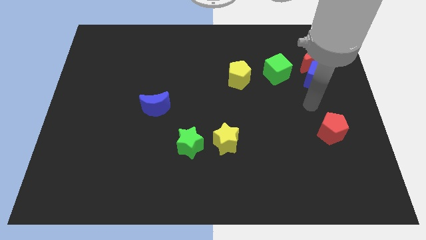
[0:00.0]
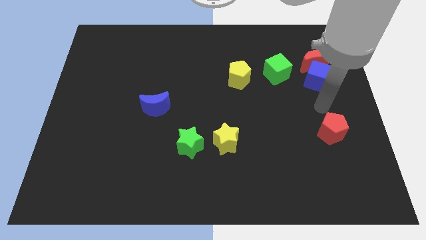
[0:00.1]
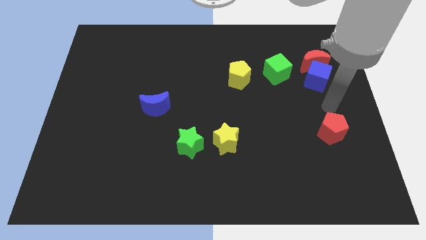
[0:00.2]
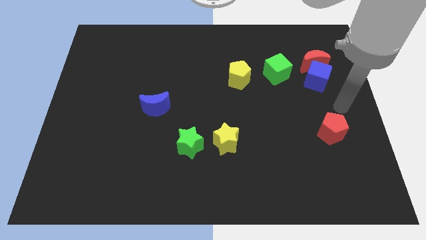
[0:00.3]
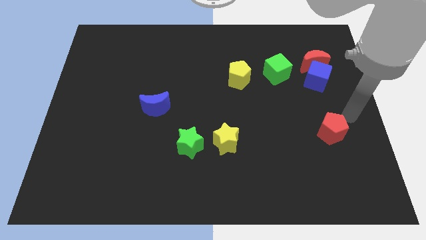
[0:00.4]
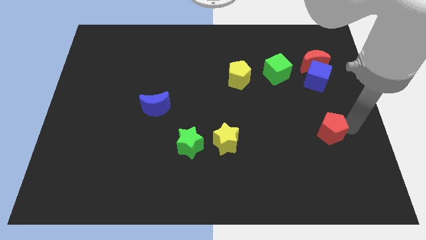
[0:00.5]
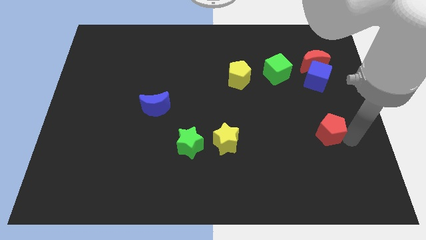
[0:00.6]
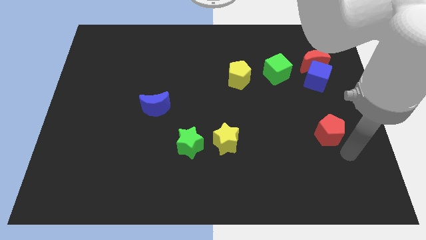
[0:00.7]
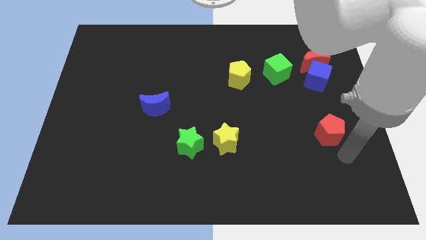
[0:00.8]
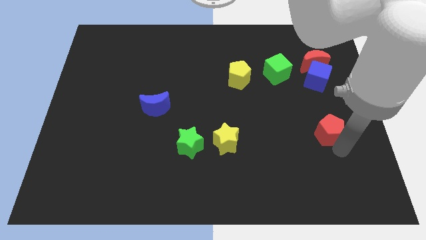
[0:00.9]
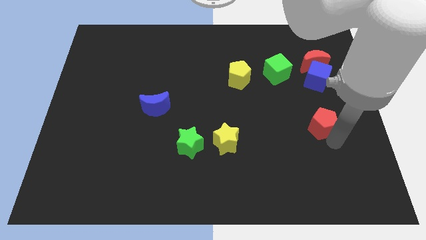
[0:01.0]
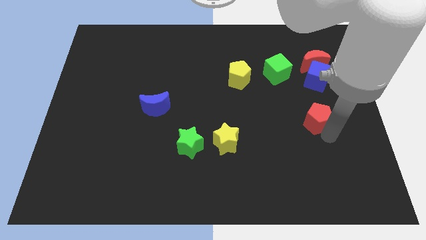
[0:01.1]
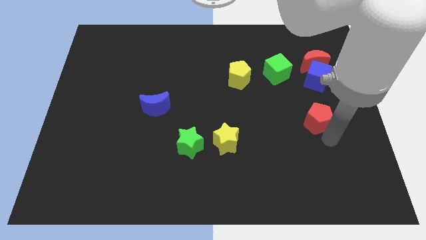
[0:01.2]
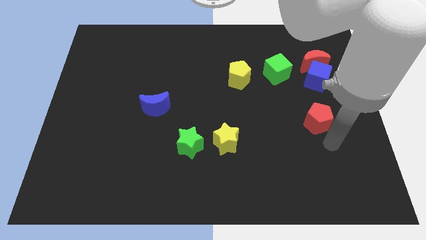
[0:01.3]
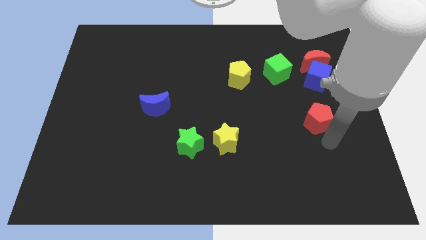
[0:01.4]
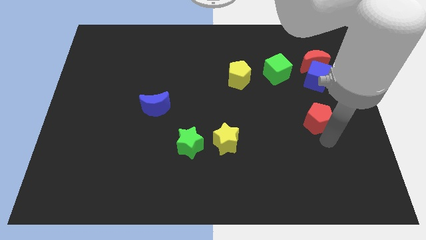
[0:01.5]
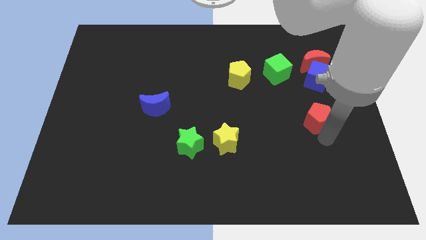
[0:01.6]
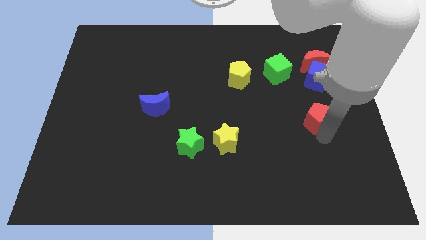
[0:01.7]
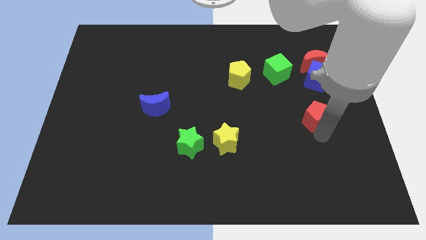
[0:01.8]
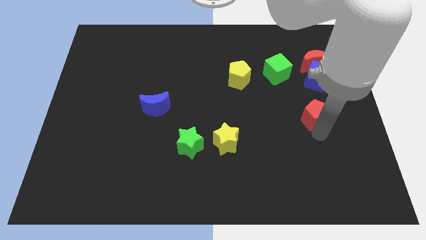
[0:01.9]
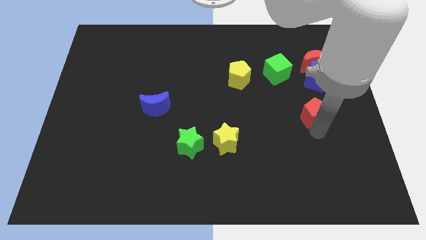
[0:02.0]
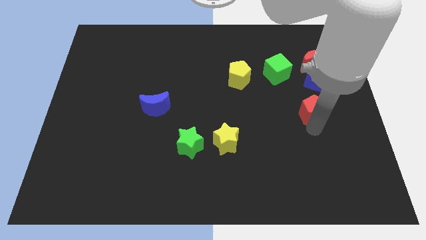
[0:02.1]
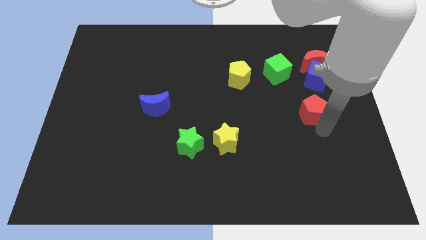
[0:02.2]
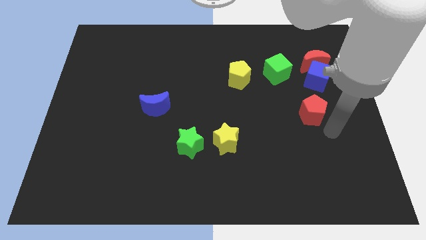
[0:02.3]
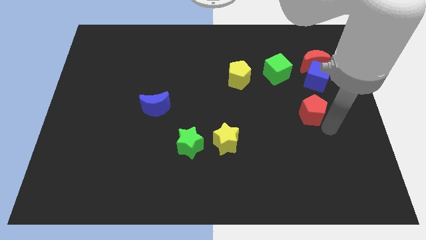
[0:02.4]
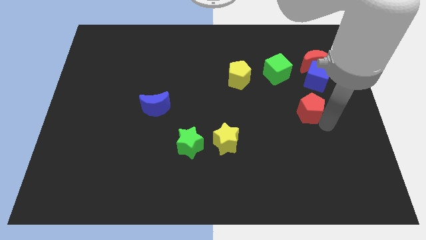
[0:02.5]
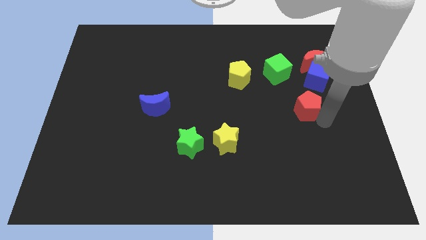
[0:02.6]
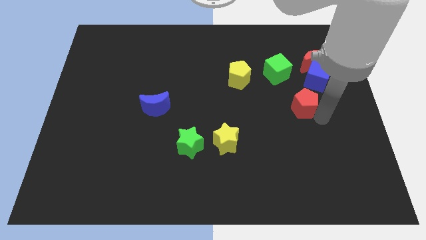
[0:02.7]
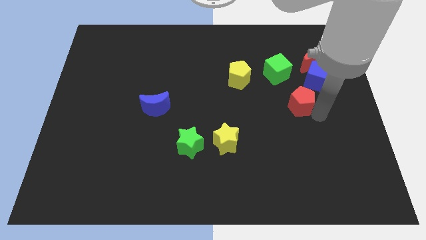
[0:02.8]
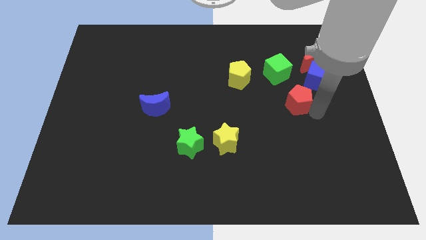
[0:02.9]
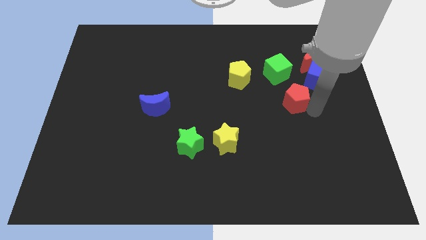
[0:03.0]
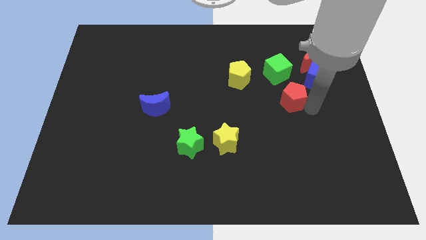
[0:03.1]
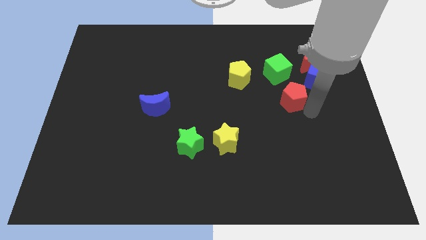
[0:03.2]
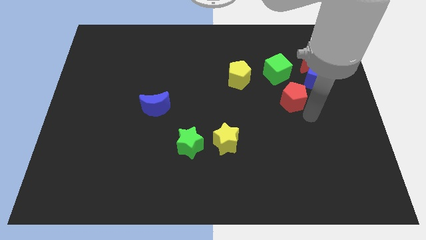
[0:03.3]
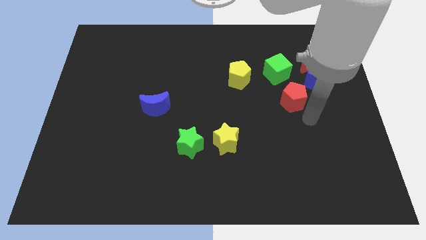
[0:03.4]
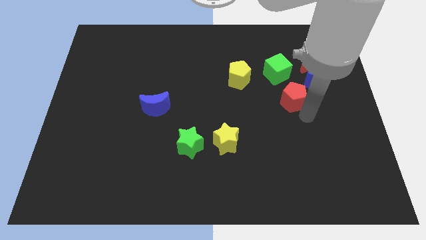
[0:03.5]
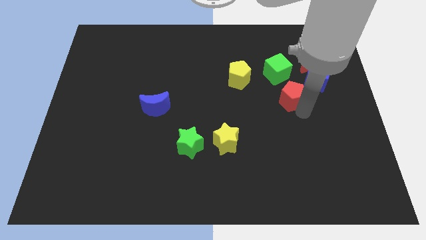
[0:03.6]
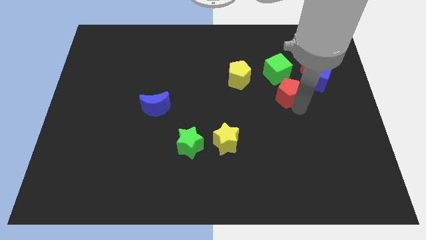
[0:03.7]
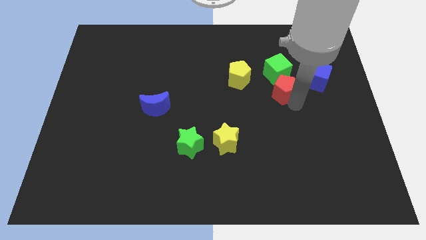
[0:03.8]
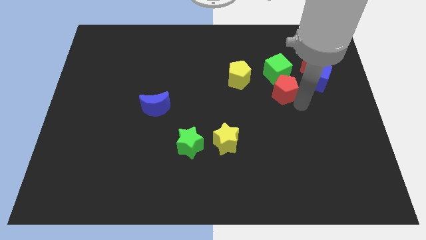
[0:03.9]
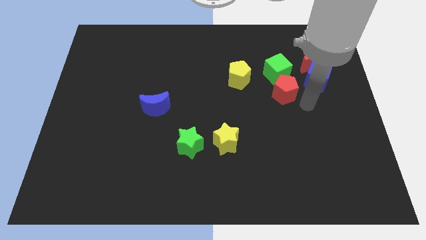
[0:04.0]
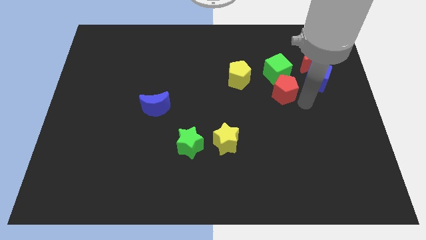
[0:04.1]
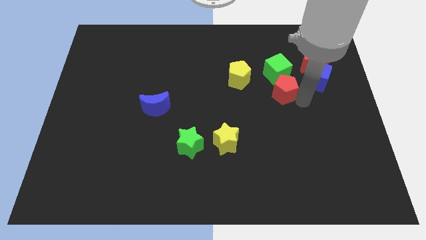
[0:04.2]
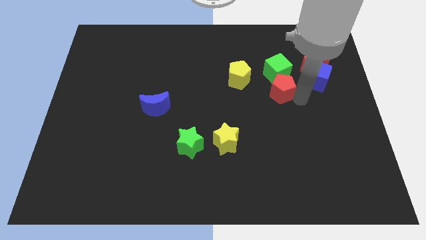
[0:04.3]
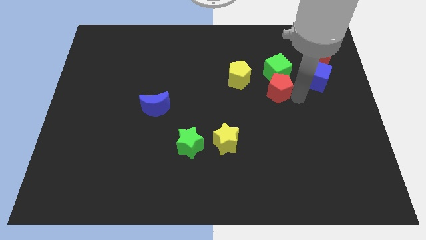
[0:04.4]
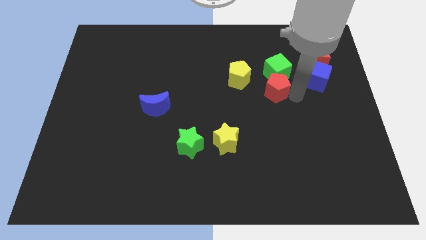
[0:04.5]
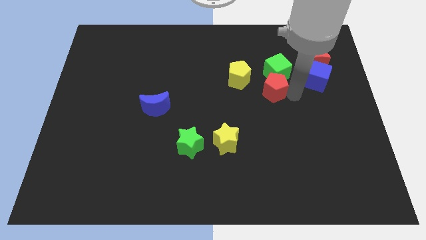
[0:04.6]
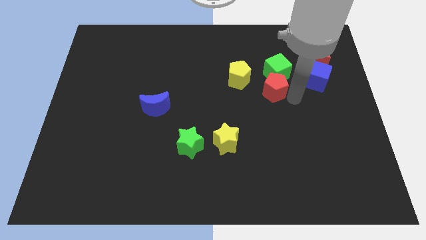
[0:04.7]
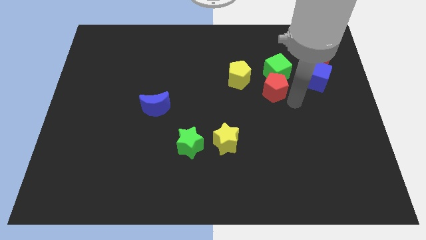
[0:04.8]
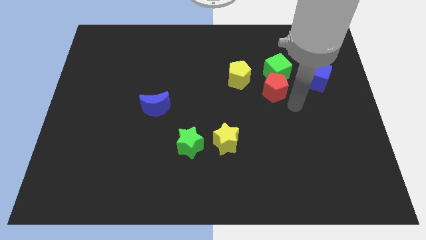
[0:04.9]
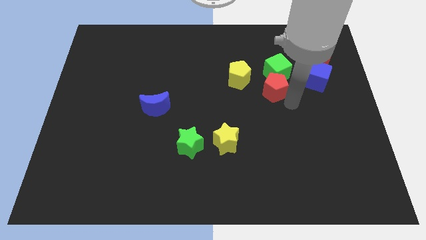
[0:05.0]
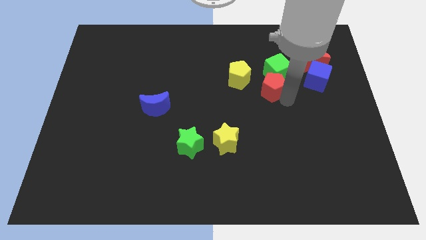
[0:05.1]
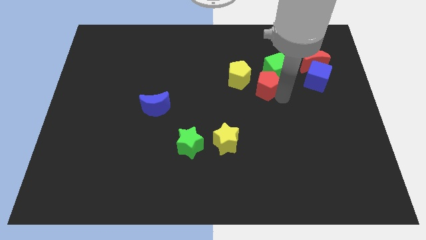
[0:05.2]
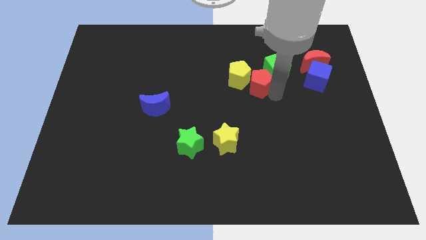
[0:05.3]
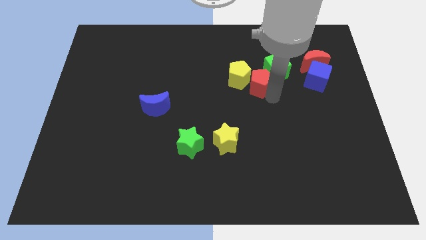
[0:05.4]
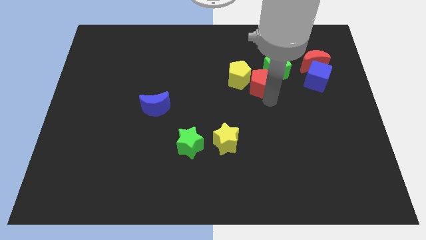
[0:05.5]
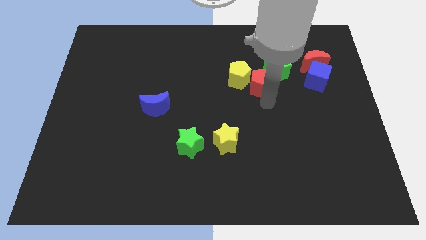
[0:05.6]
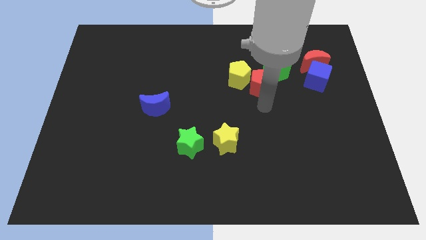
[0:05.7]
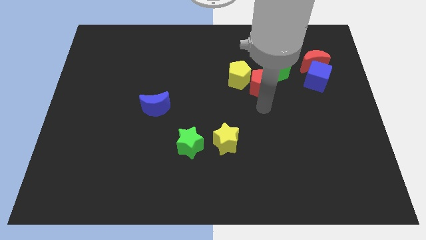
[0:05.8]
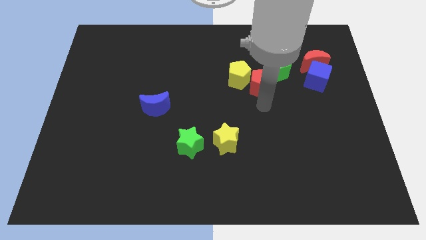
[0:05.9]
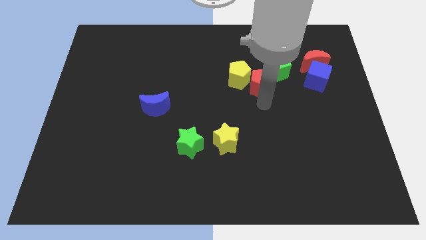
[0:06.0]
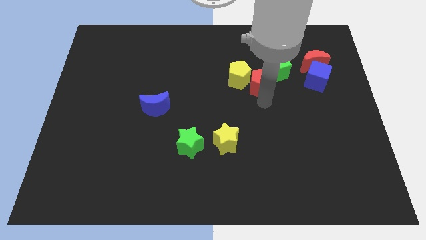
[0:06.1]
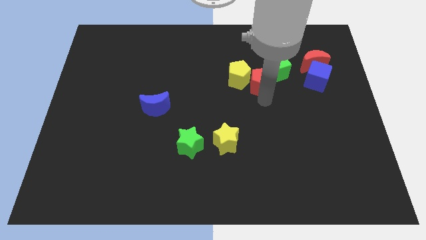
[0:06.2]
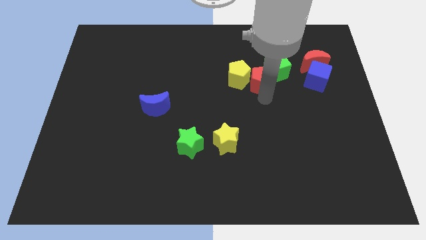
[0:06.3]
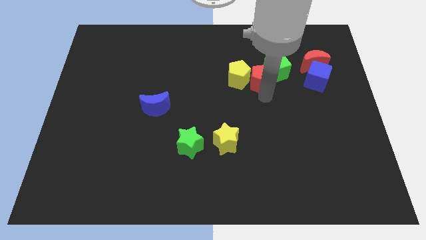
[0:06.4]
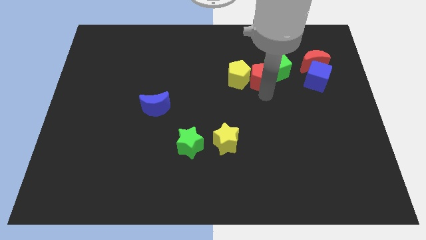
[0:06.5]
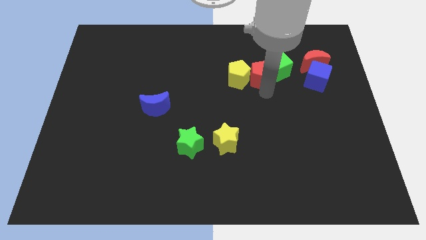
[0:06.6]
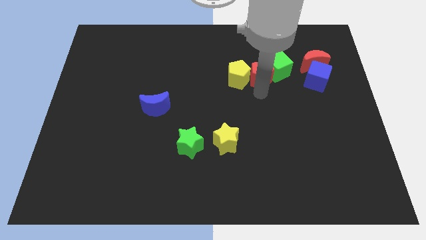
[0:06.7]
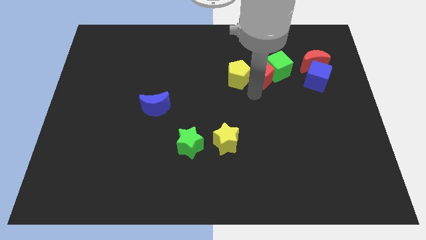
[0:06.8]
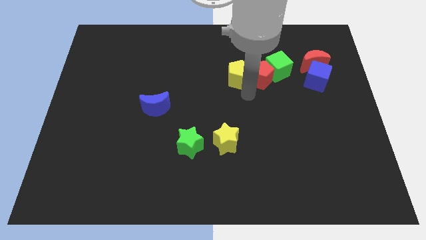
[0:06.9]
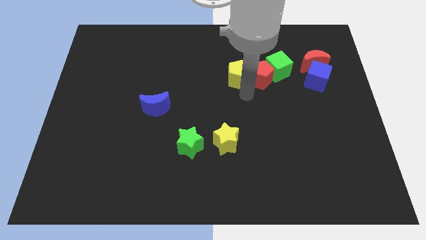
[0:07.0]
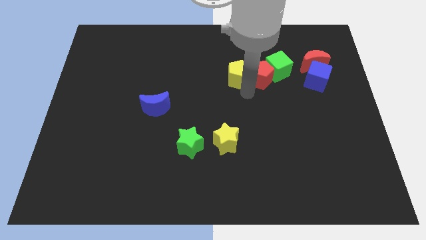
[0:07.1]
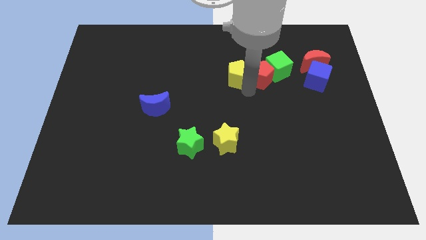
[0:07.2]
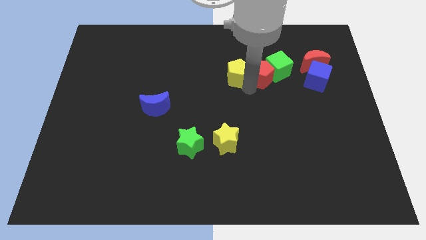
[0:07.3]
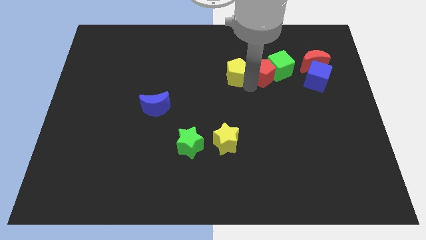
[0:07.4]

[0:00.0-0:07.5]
move the red pentagon to the left side of the red moon

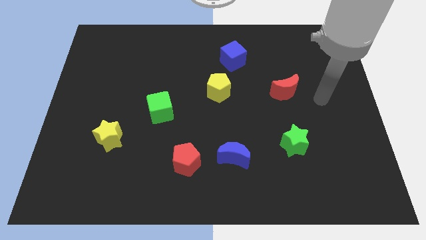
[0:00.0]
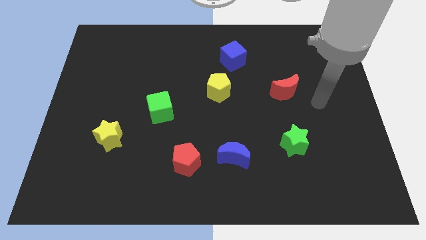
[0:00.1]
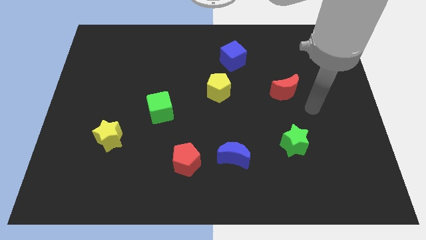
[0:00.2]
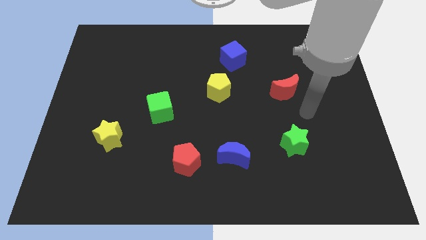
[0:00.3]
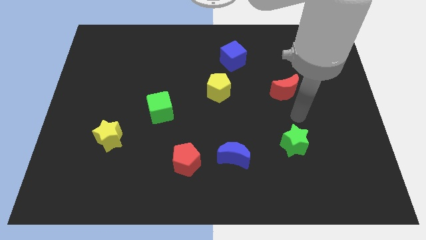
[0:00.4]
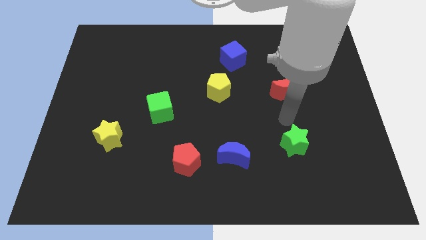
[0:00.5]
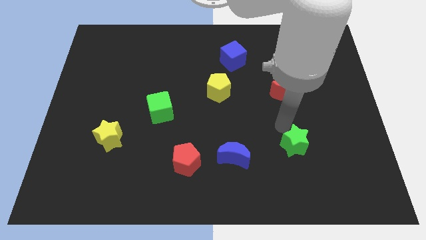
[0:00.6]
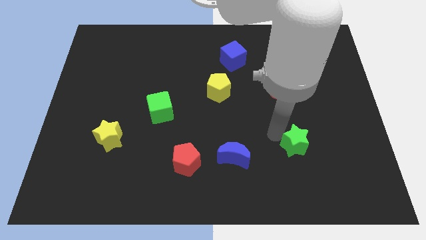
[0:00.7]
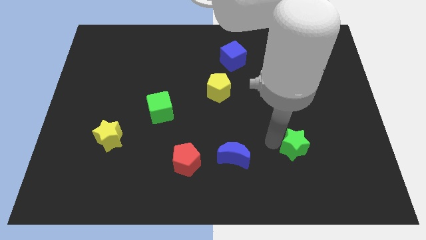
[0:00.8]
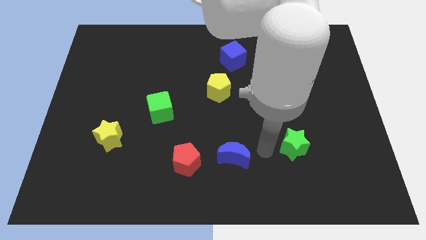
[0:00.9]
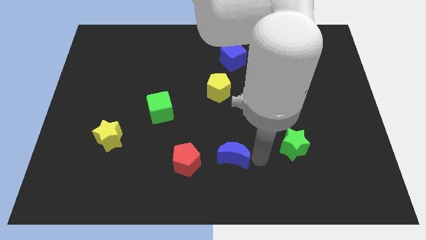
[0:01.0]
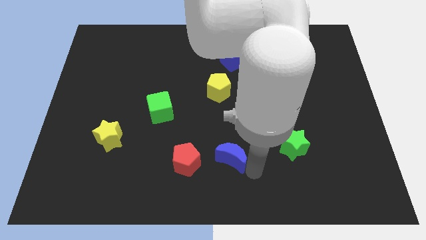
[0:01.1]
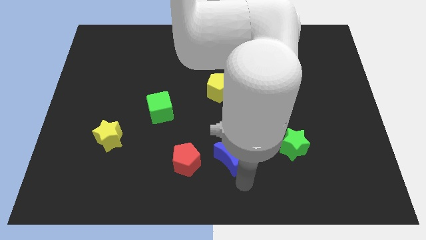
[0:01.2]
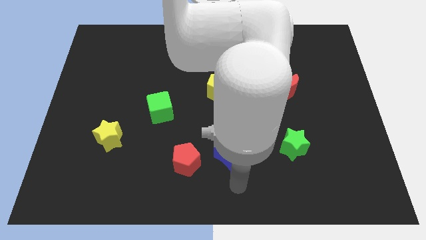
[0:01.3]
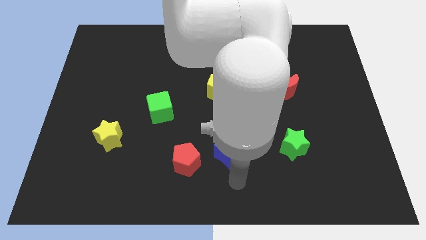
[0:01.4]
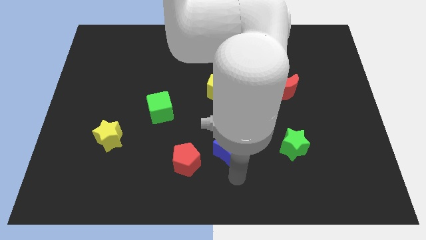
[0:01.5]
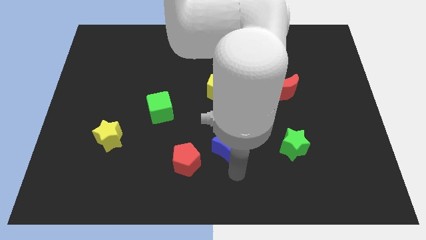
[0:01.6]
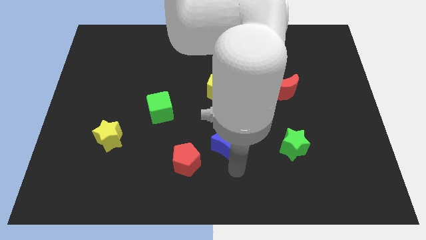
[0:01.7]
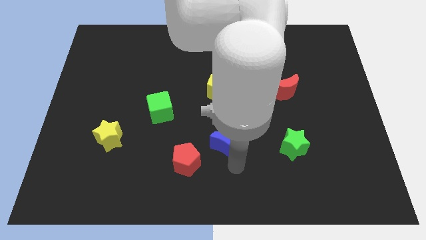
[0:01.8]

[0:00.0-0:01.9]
move the blue moon to the bottom of the yellow pentagon
